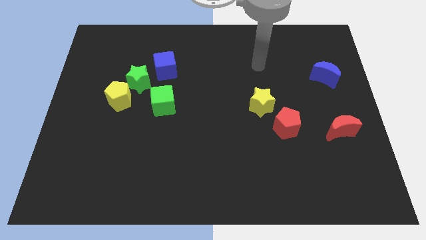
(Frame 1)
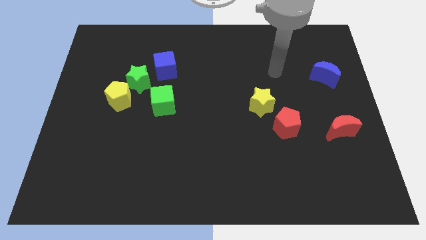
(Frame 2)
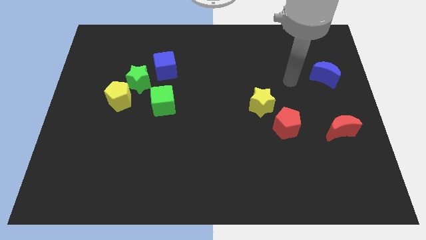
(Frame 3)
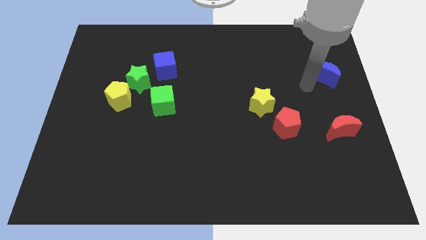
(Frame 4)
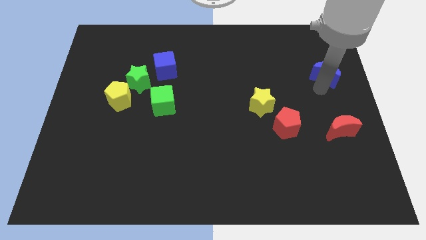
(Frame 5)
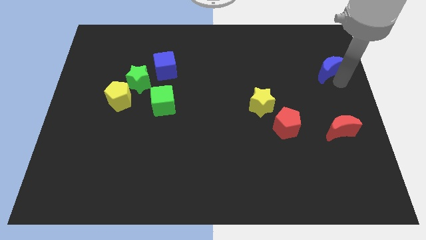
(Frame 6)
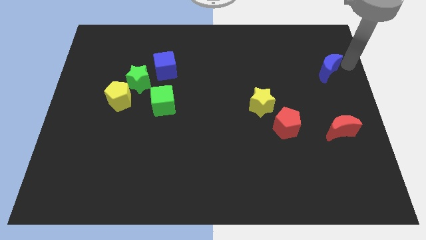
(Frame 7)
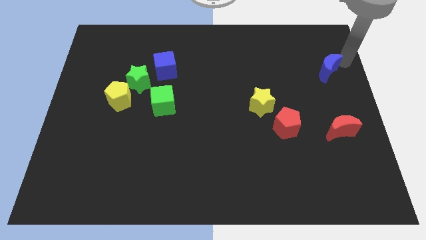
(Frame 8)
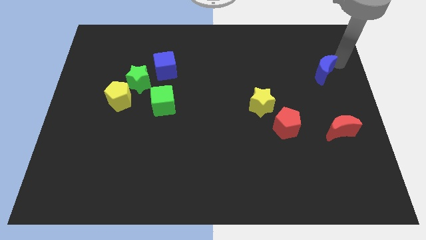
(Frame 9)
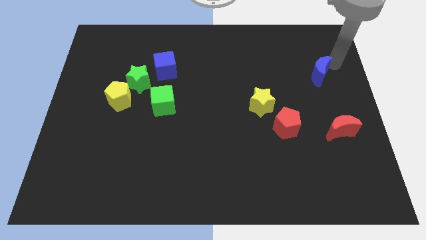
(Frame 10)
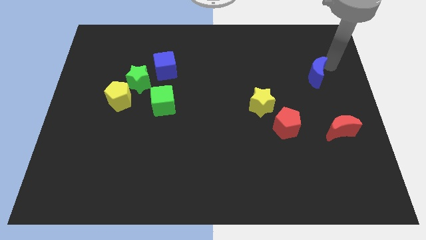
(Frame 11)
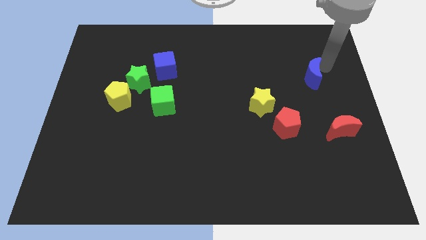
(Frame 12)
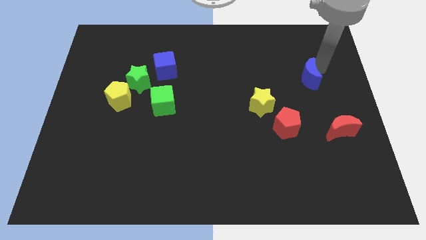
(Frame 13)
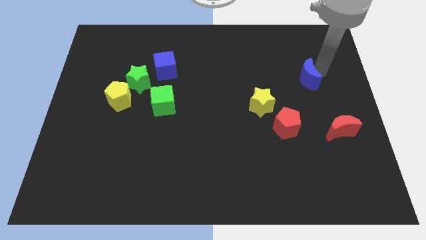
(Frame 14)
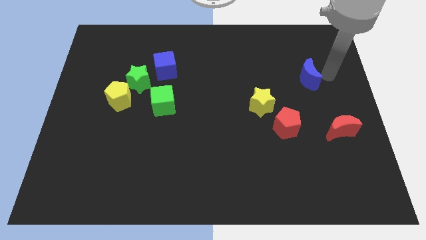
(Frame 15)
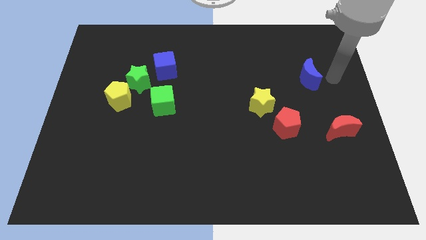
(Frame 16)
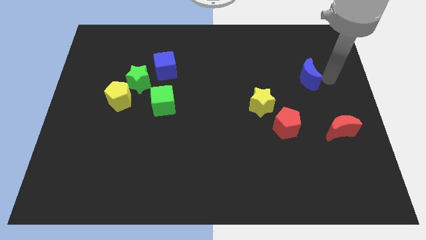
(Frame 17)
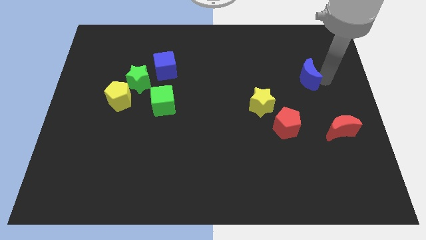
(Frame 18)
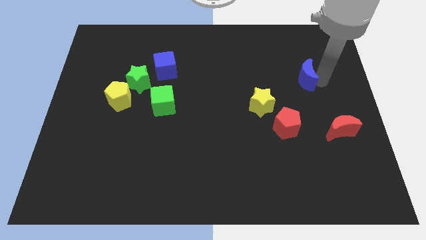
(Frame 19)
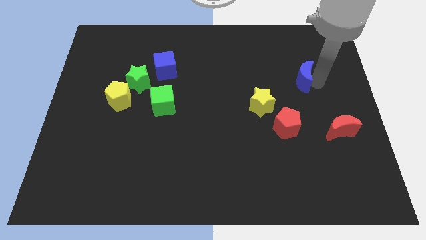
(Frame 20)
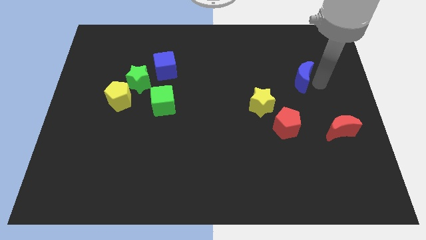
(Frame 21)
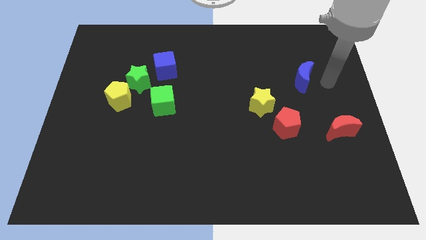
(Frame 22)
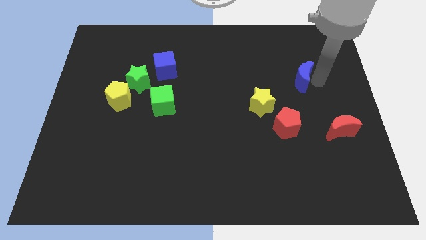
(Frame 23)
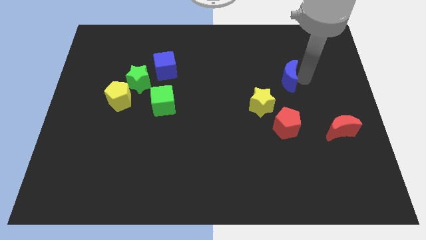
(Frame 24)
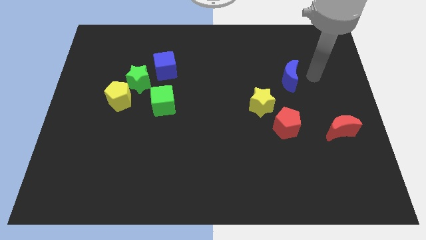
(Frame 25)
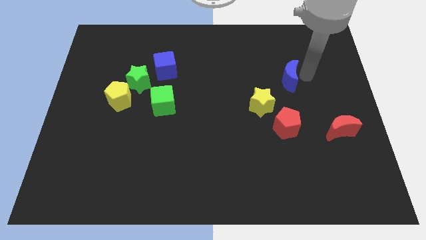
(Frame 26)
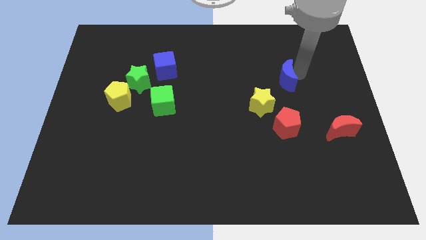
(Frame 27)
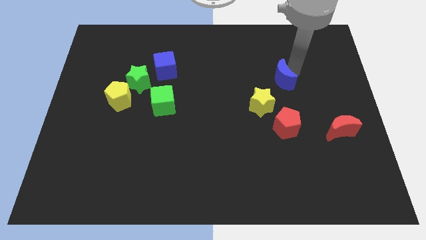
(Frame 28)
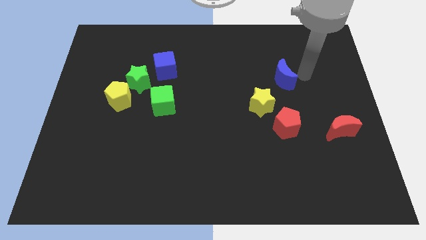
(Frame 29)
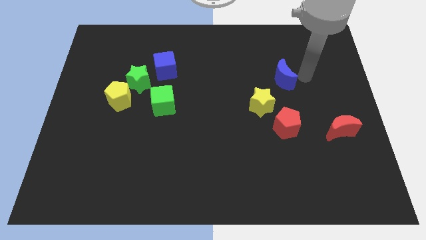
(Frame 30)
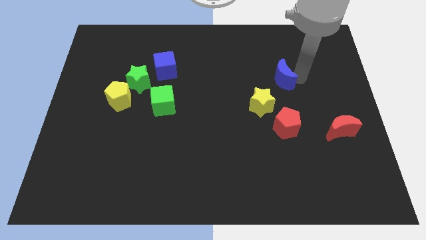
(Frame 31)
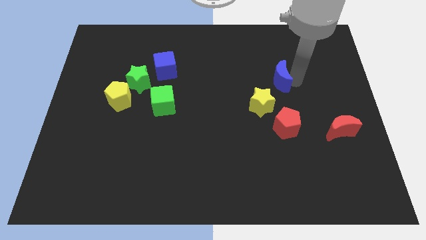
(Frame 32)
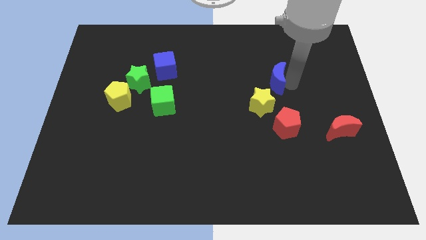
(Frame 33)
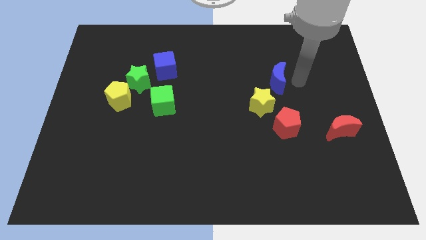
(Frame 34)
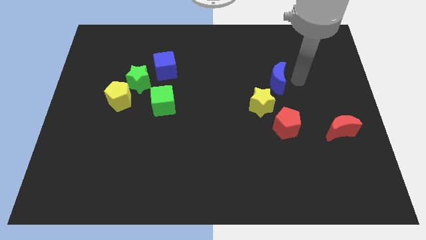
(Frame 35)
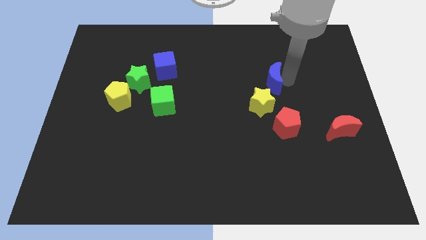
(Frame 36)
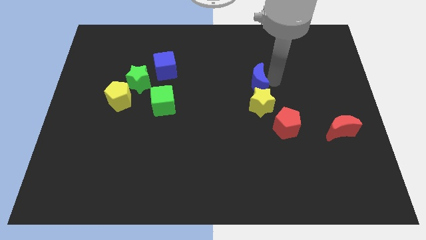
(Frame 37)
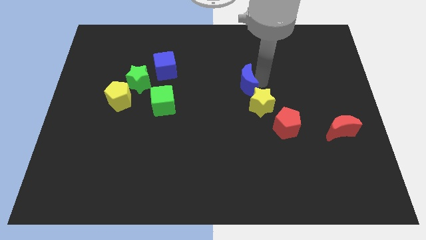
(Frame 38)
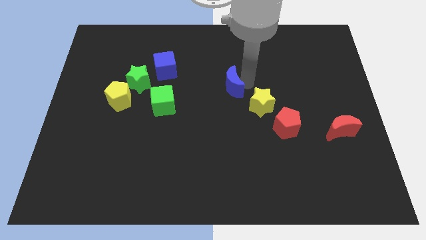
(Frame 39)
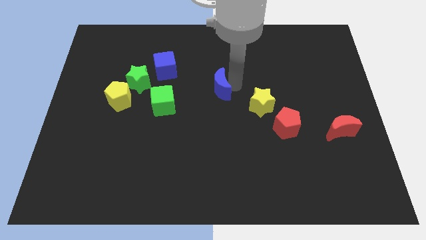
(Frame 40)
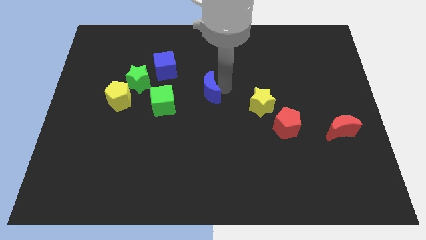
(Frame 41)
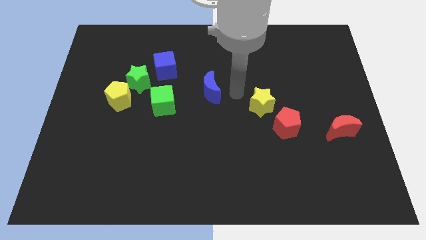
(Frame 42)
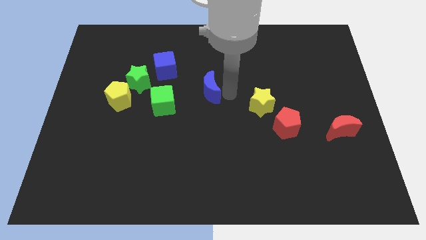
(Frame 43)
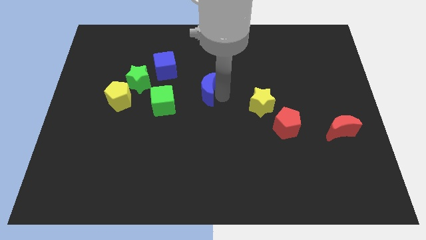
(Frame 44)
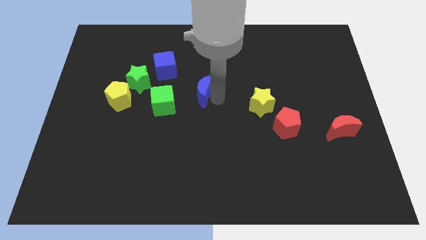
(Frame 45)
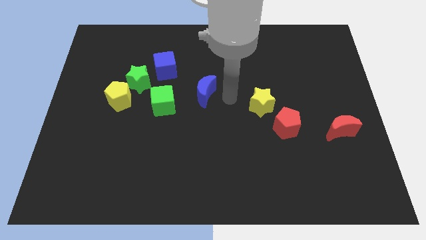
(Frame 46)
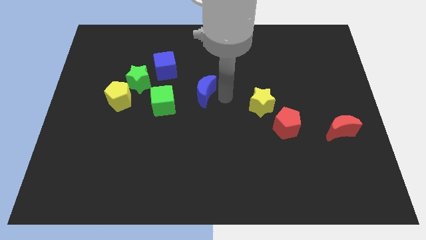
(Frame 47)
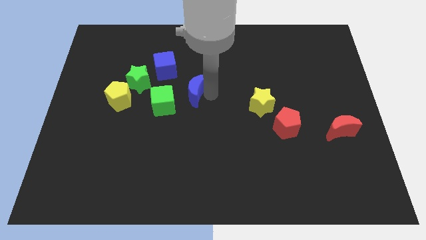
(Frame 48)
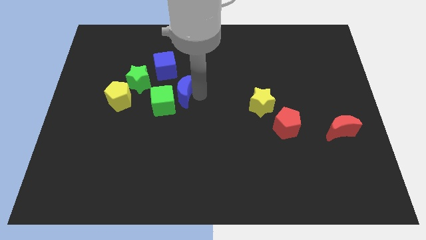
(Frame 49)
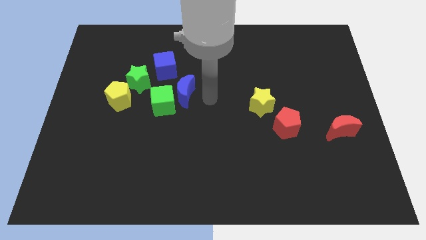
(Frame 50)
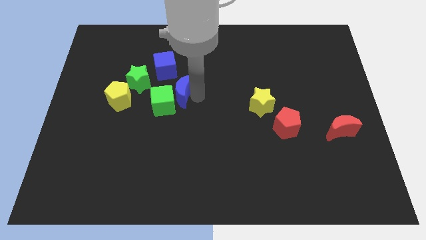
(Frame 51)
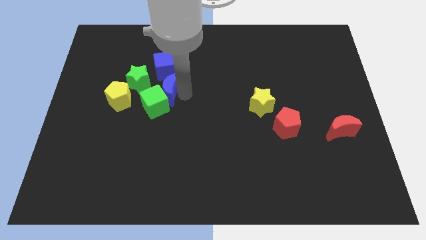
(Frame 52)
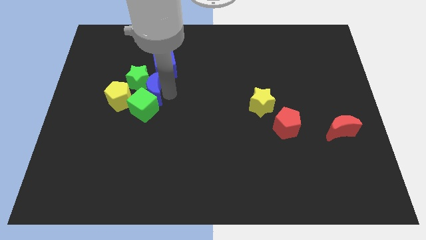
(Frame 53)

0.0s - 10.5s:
push the blue moon next to the green star

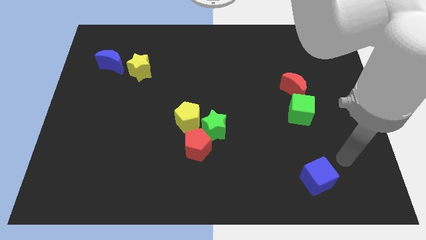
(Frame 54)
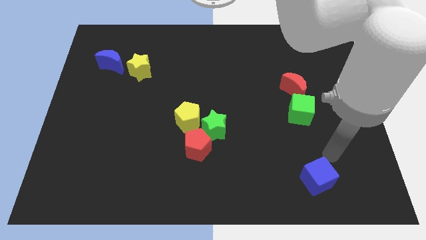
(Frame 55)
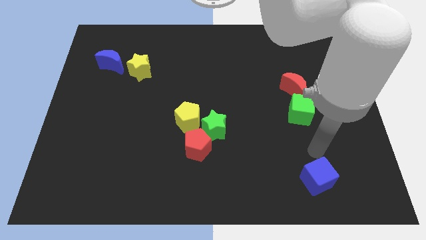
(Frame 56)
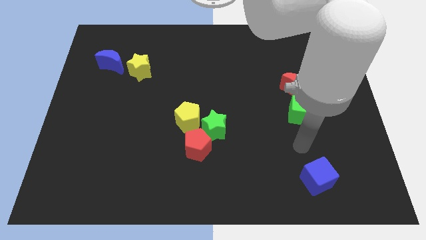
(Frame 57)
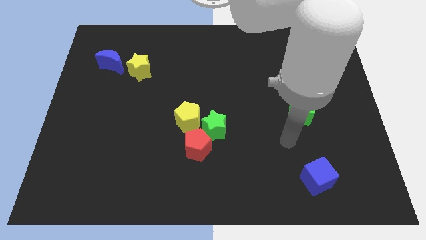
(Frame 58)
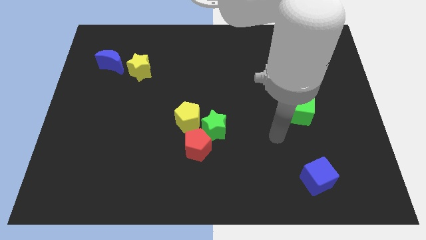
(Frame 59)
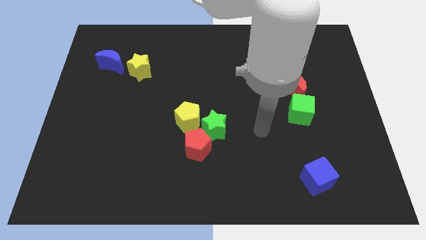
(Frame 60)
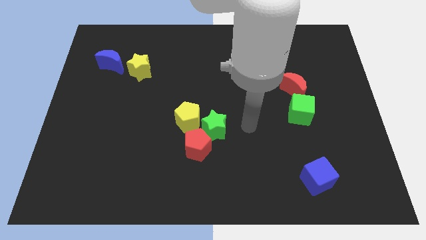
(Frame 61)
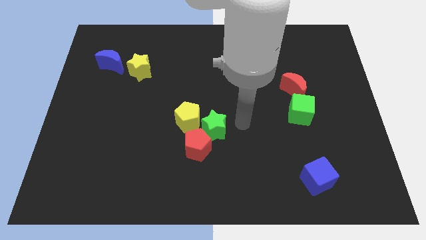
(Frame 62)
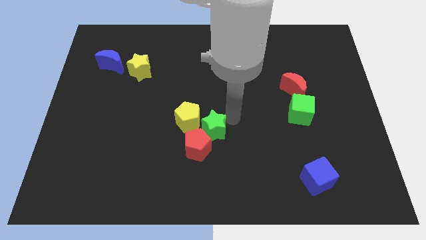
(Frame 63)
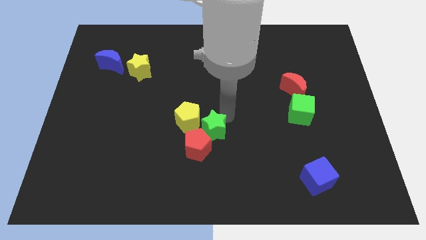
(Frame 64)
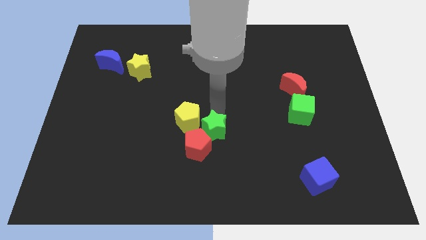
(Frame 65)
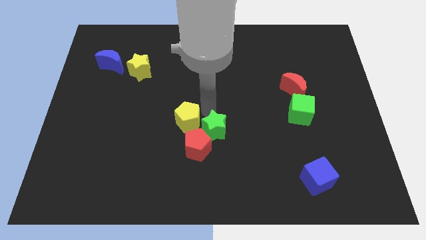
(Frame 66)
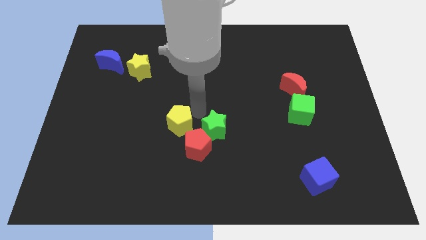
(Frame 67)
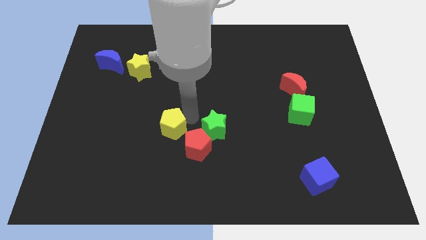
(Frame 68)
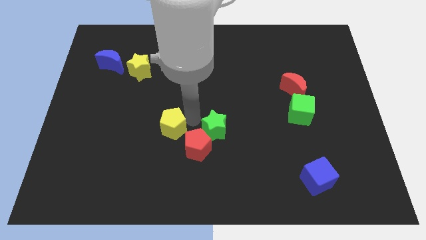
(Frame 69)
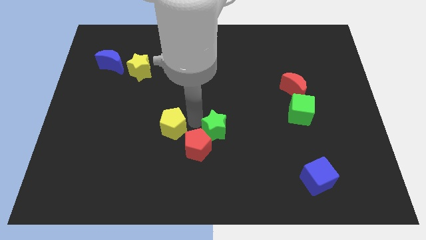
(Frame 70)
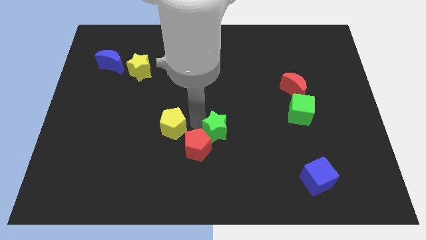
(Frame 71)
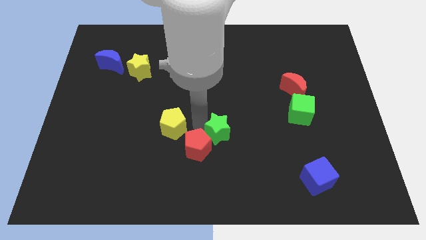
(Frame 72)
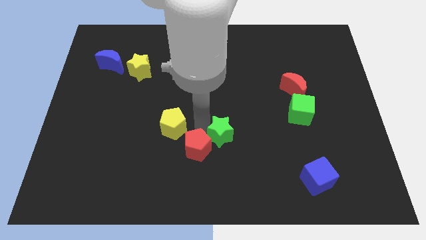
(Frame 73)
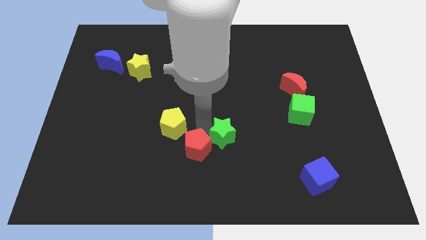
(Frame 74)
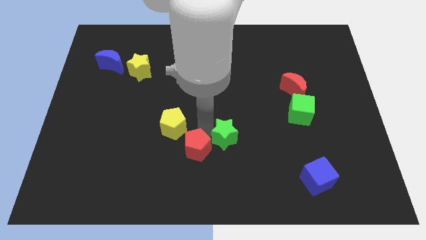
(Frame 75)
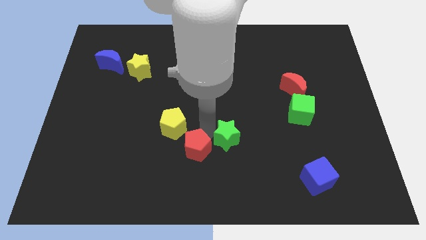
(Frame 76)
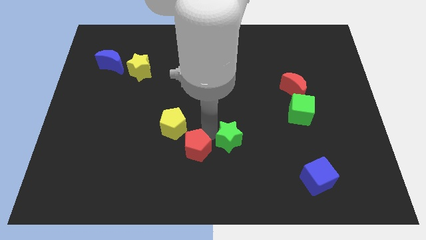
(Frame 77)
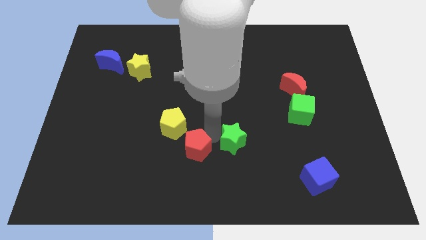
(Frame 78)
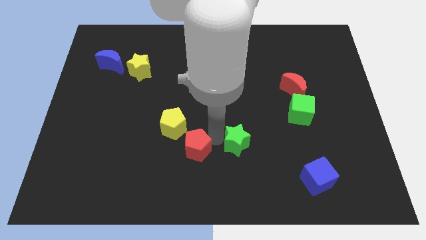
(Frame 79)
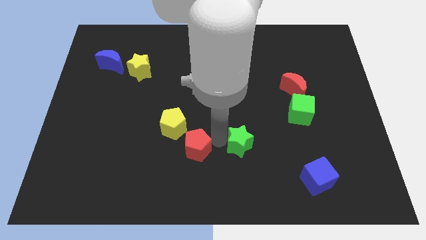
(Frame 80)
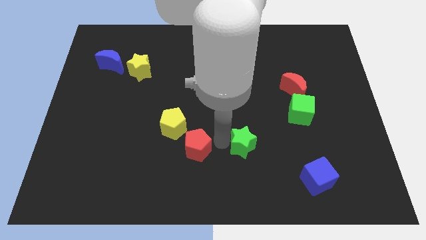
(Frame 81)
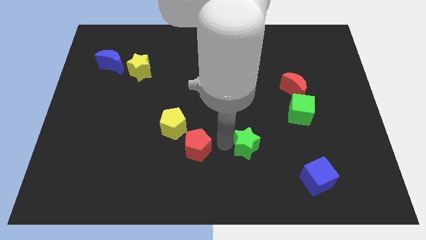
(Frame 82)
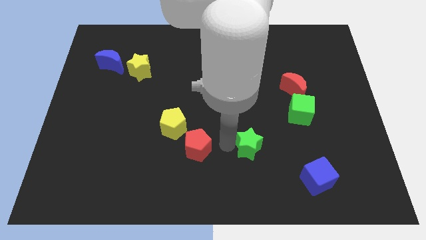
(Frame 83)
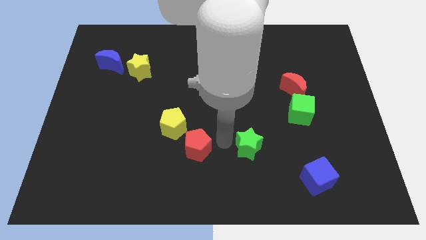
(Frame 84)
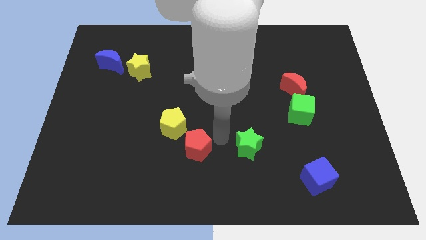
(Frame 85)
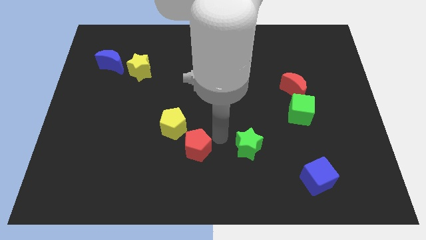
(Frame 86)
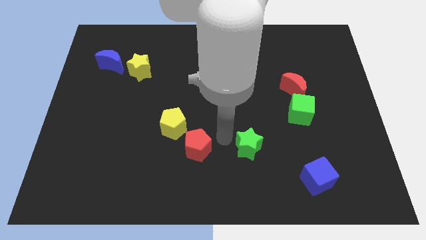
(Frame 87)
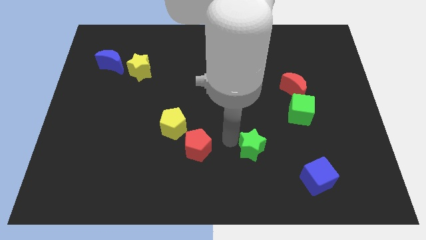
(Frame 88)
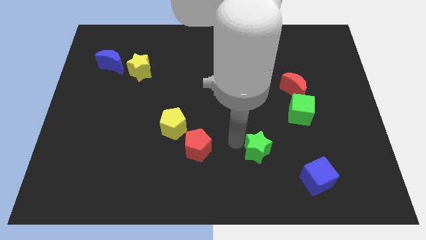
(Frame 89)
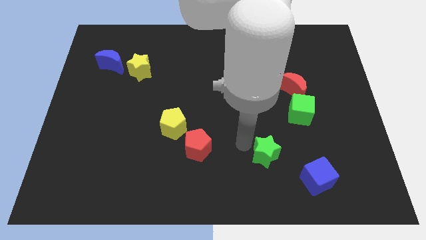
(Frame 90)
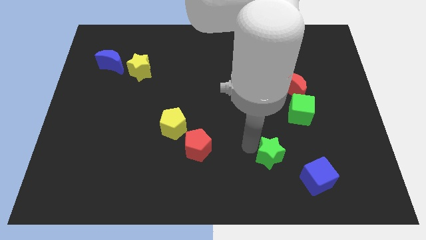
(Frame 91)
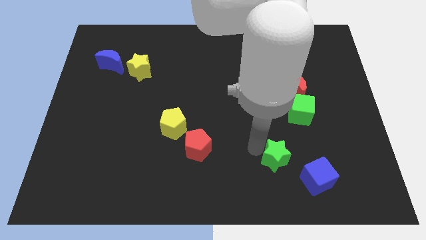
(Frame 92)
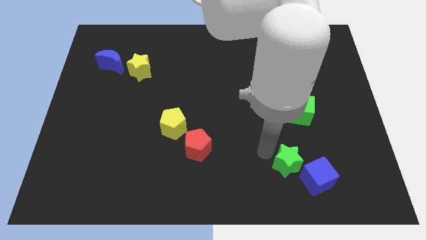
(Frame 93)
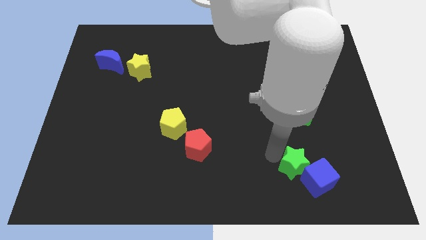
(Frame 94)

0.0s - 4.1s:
push the green star to the blue cube
